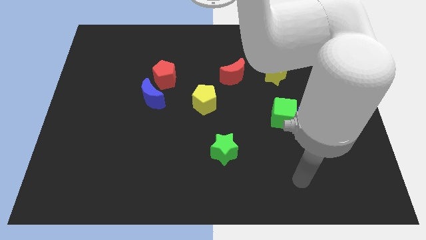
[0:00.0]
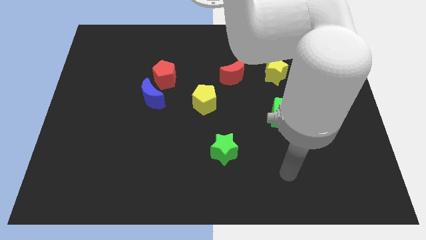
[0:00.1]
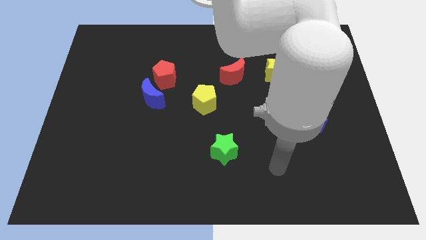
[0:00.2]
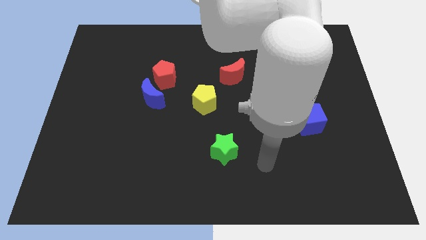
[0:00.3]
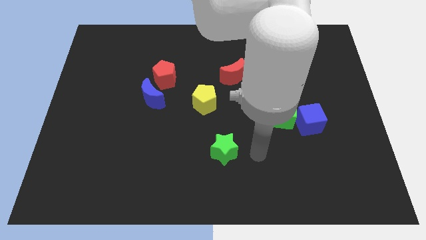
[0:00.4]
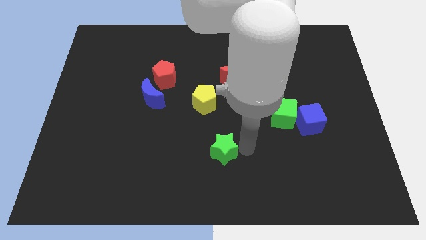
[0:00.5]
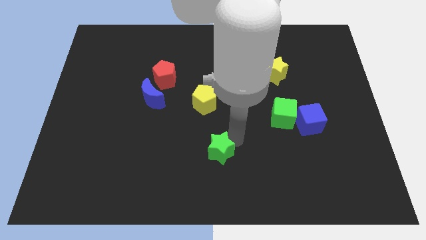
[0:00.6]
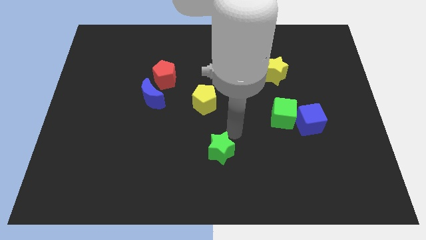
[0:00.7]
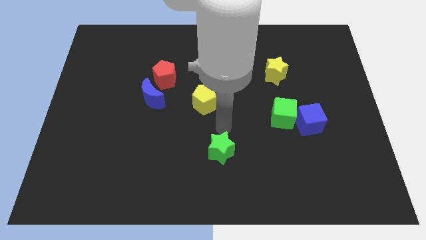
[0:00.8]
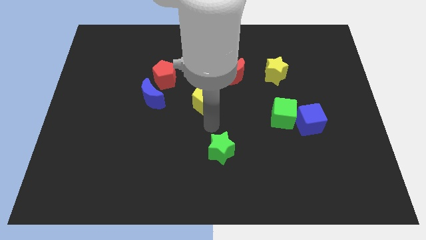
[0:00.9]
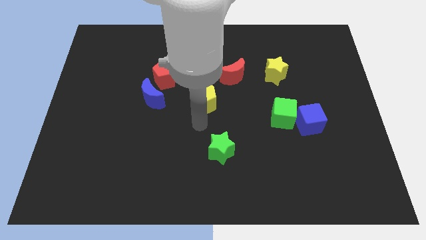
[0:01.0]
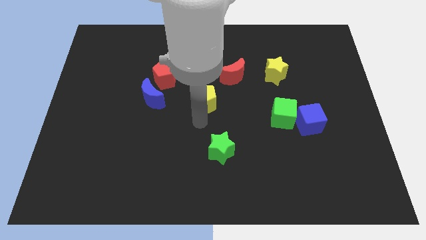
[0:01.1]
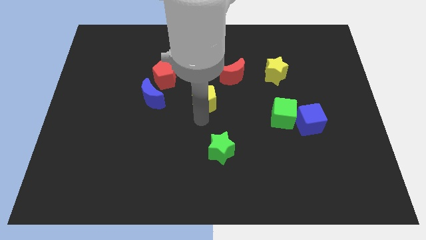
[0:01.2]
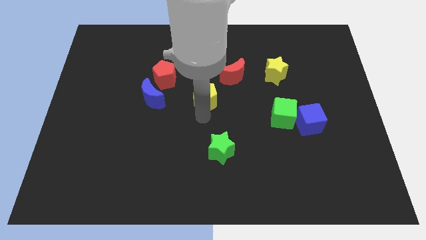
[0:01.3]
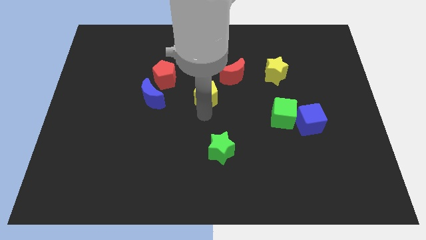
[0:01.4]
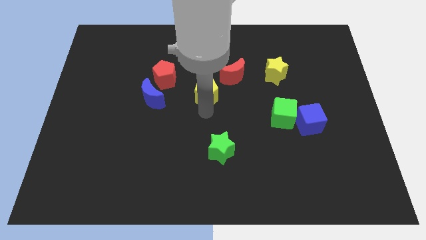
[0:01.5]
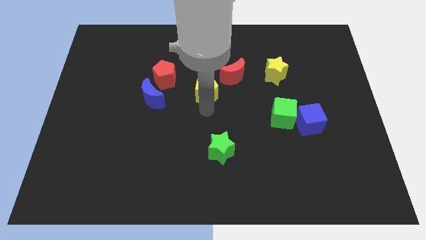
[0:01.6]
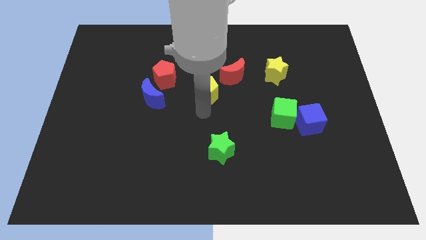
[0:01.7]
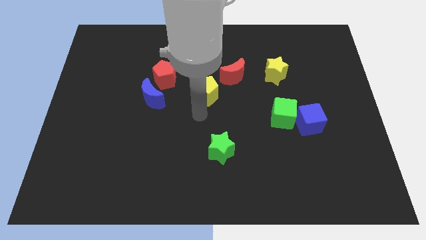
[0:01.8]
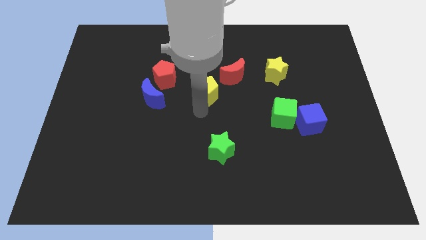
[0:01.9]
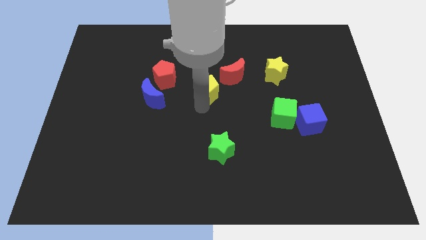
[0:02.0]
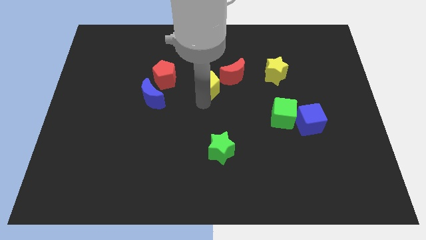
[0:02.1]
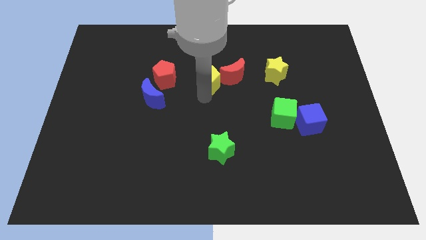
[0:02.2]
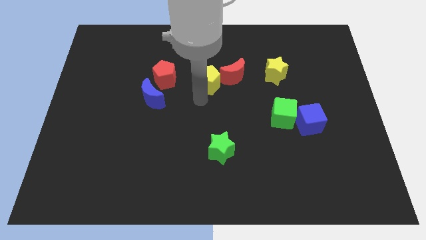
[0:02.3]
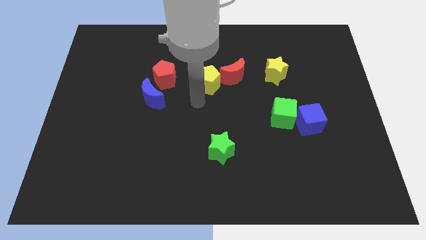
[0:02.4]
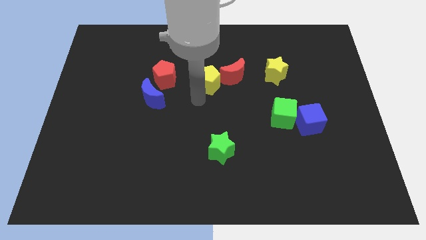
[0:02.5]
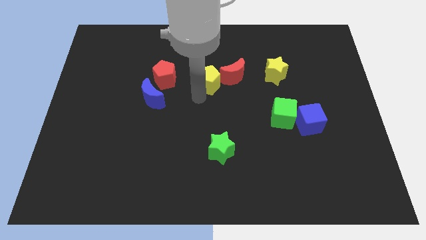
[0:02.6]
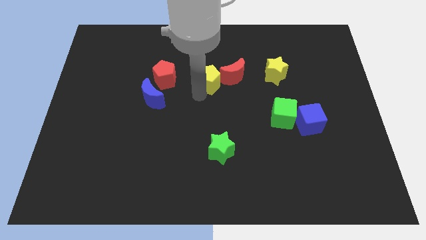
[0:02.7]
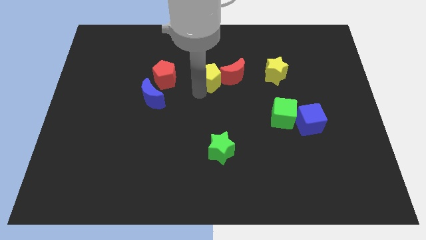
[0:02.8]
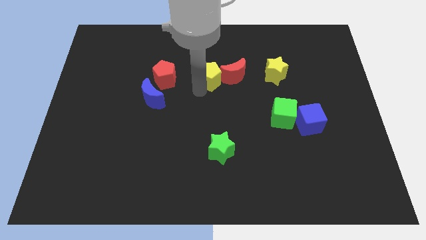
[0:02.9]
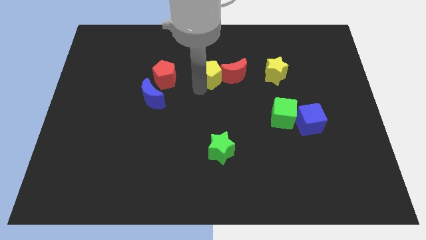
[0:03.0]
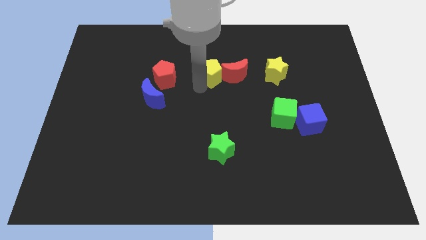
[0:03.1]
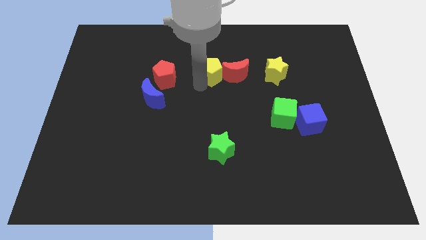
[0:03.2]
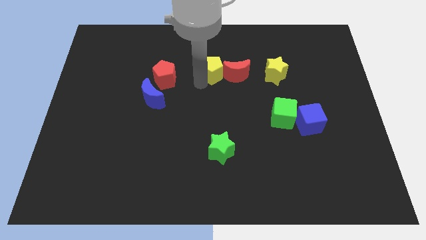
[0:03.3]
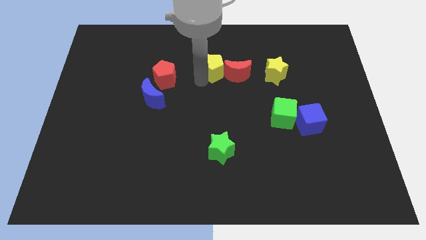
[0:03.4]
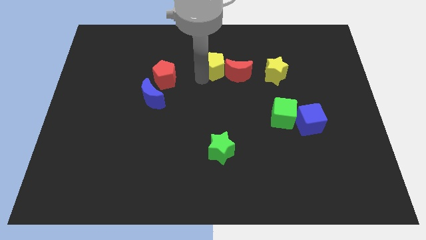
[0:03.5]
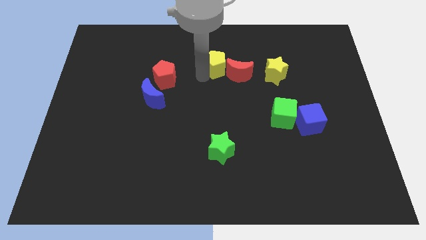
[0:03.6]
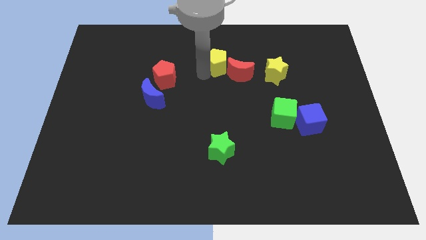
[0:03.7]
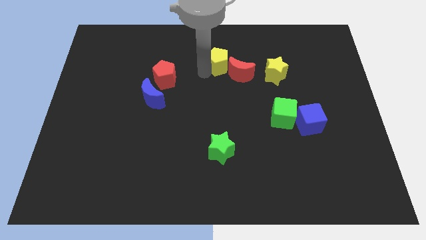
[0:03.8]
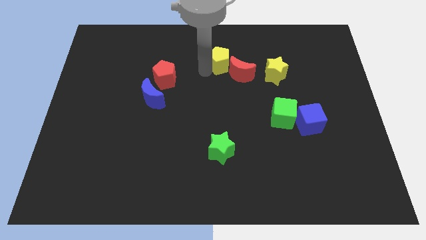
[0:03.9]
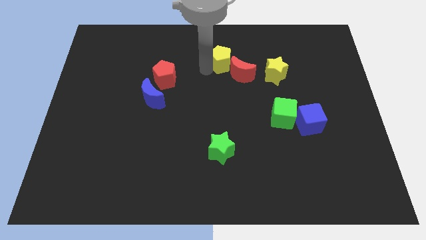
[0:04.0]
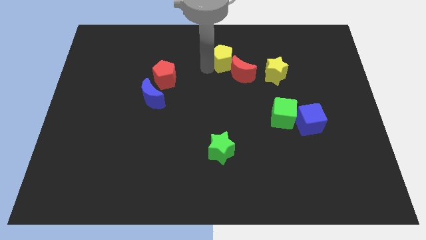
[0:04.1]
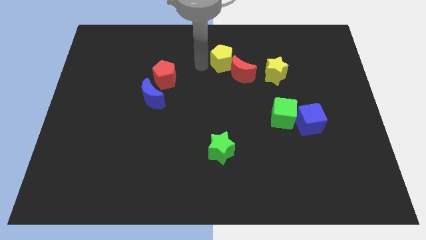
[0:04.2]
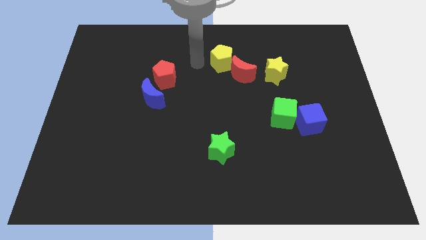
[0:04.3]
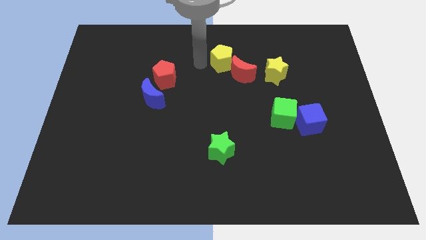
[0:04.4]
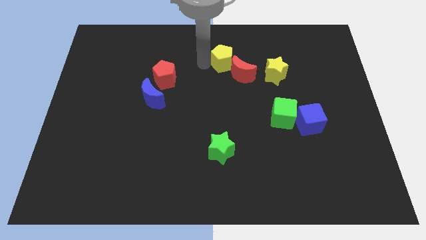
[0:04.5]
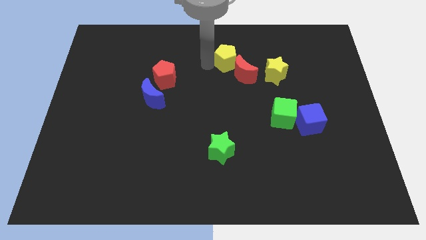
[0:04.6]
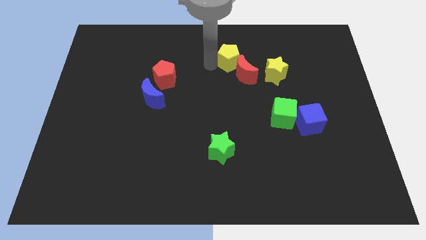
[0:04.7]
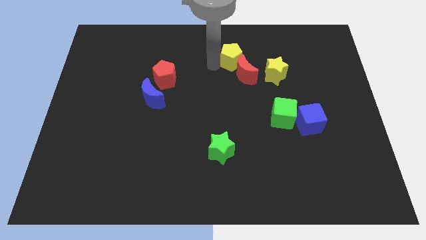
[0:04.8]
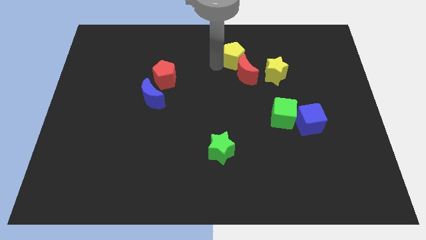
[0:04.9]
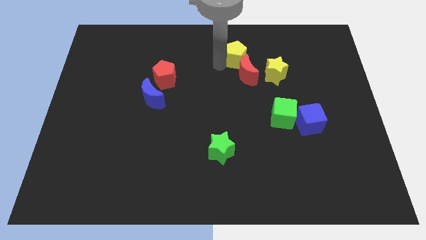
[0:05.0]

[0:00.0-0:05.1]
push the yellow pentagon diagonally up and to the left of the yellow star

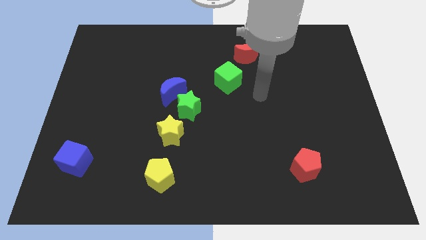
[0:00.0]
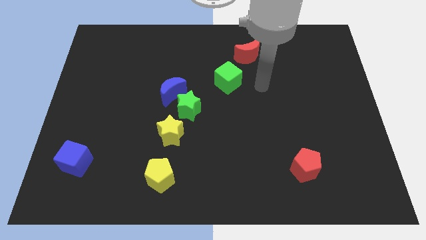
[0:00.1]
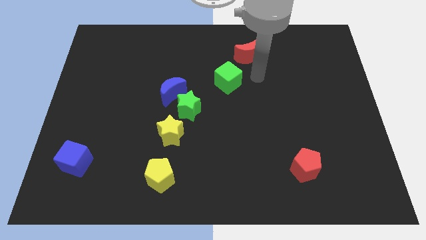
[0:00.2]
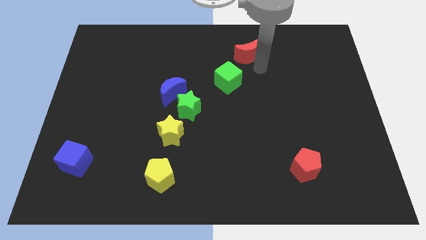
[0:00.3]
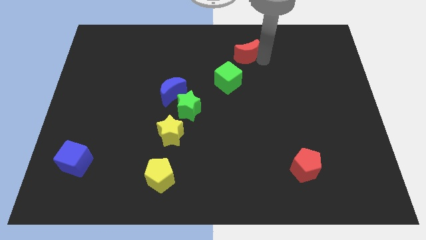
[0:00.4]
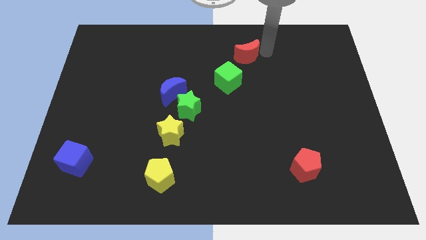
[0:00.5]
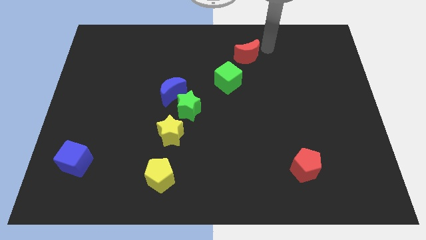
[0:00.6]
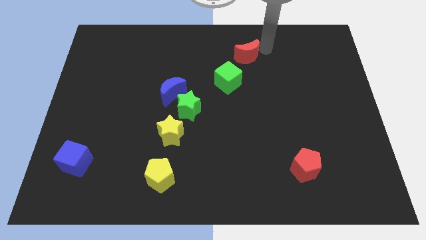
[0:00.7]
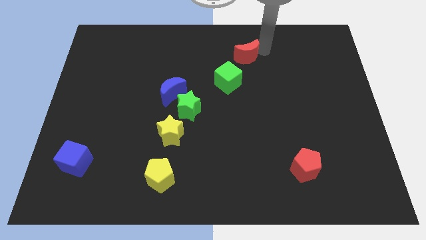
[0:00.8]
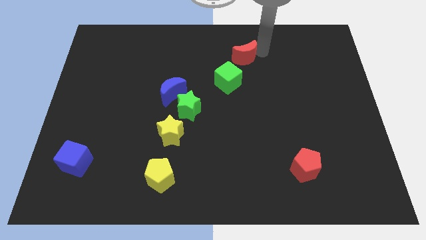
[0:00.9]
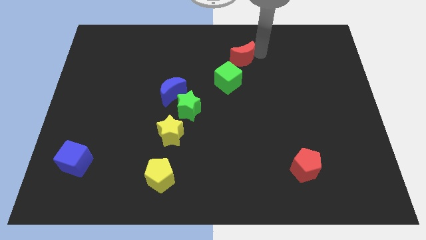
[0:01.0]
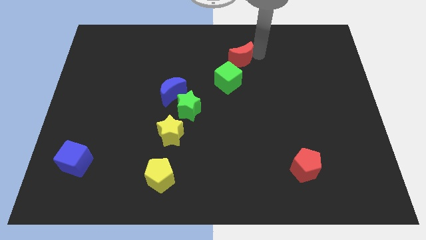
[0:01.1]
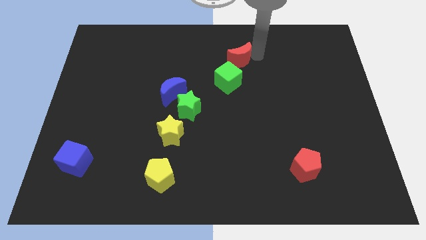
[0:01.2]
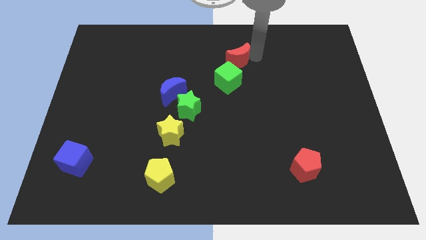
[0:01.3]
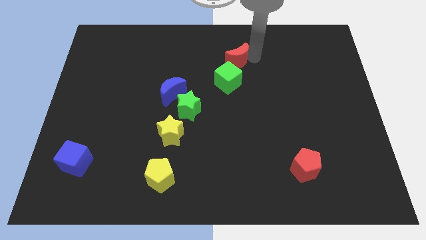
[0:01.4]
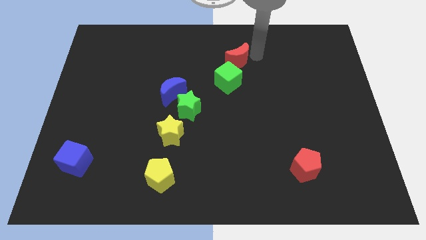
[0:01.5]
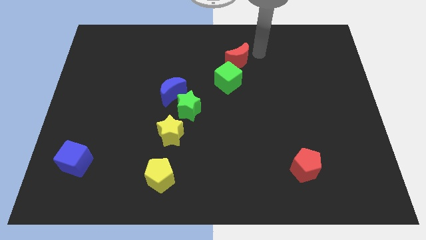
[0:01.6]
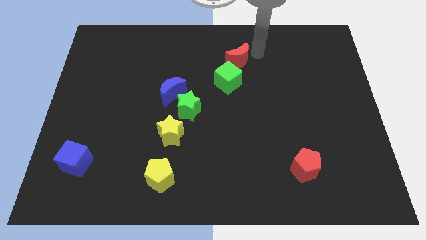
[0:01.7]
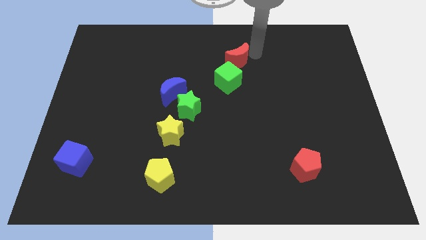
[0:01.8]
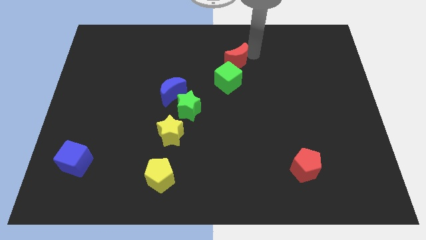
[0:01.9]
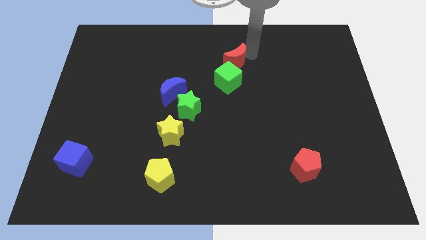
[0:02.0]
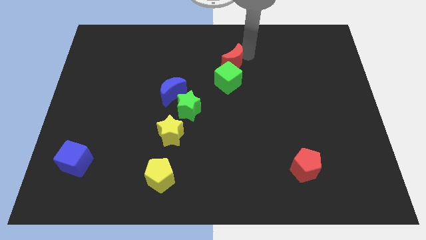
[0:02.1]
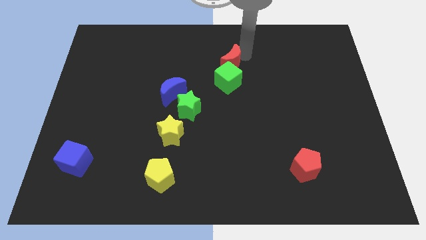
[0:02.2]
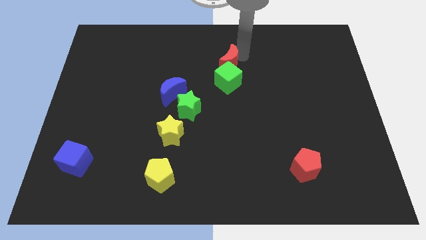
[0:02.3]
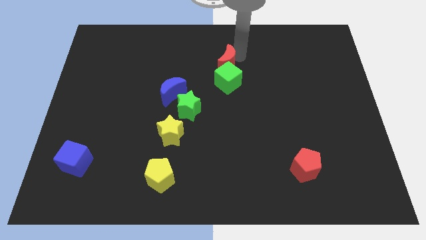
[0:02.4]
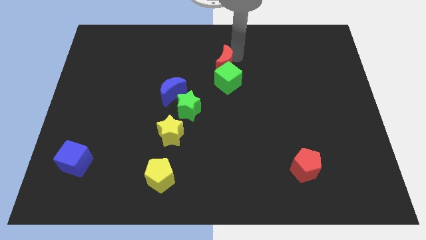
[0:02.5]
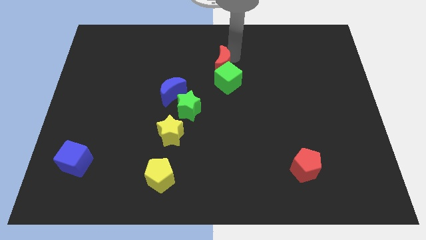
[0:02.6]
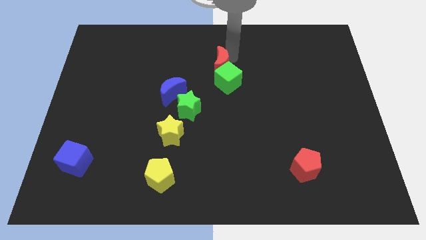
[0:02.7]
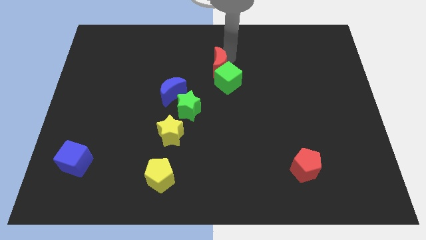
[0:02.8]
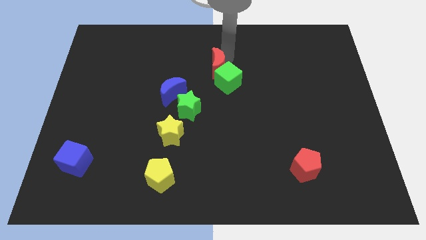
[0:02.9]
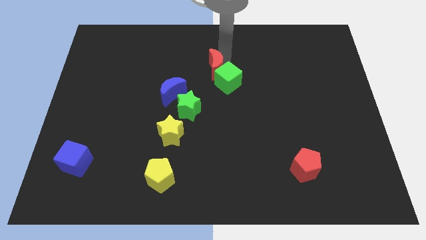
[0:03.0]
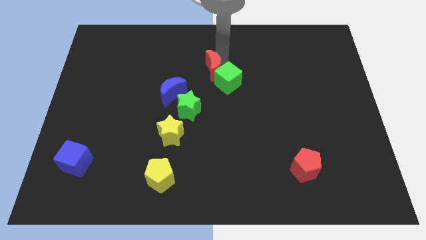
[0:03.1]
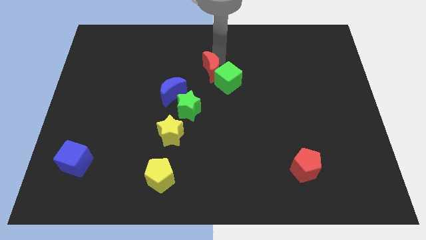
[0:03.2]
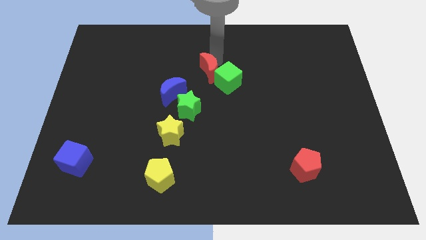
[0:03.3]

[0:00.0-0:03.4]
put the red moon to the top of the green star
